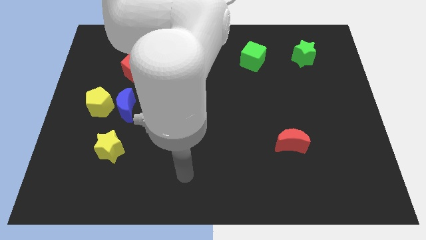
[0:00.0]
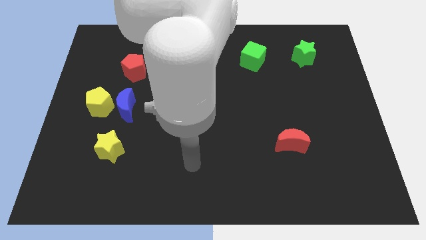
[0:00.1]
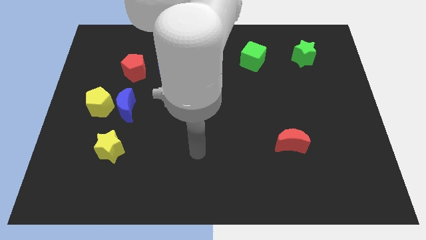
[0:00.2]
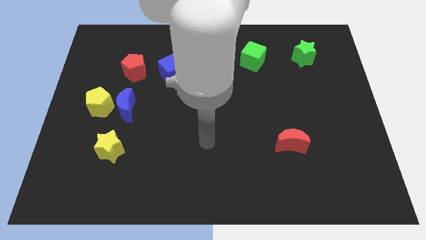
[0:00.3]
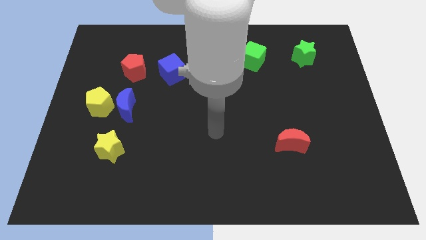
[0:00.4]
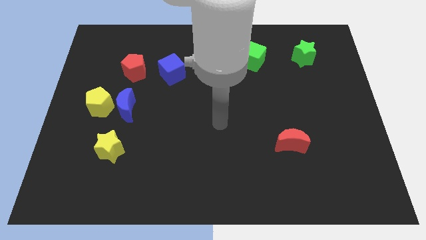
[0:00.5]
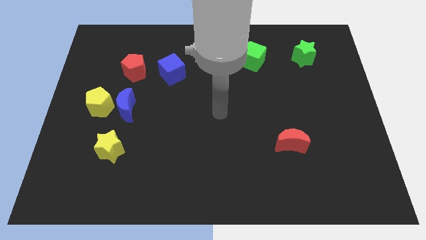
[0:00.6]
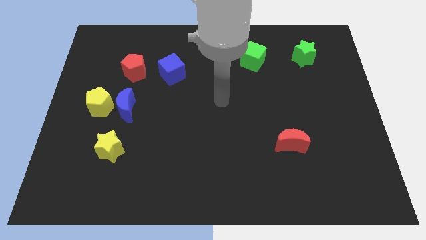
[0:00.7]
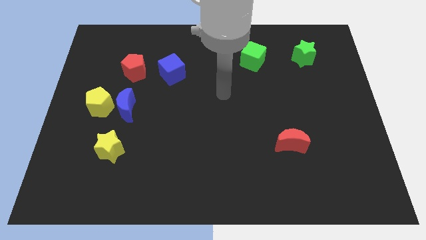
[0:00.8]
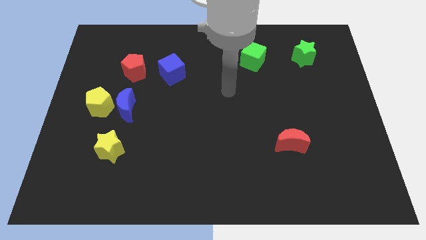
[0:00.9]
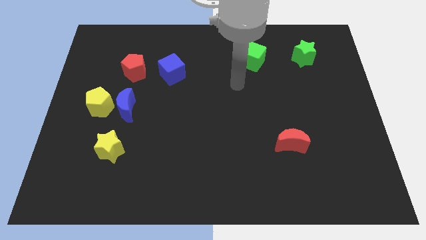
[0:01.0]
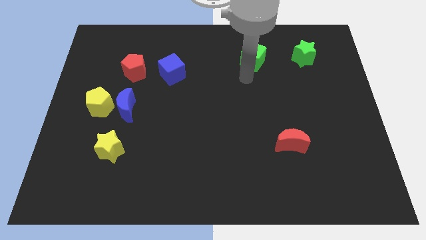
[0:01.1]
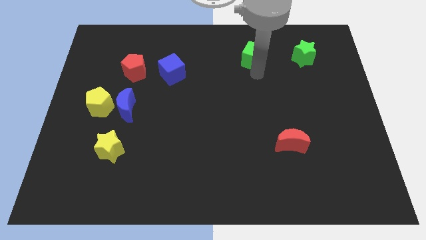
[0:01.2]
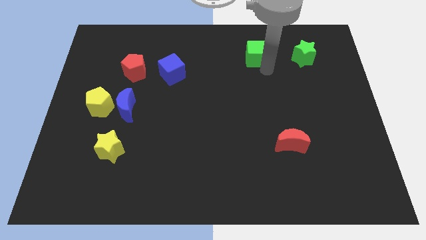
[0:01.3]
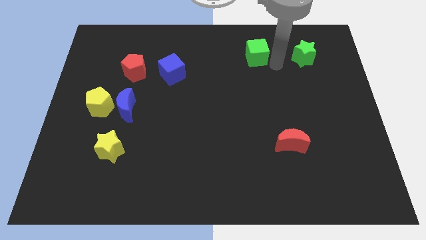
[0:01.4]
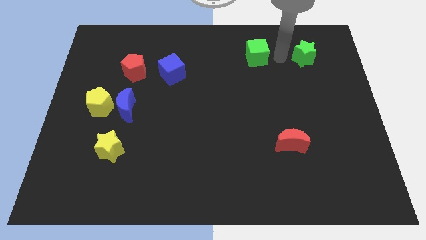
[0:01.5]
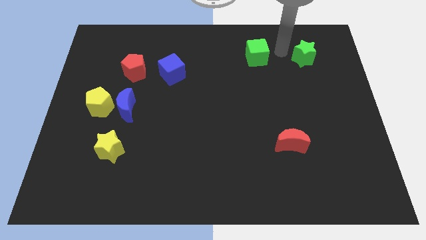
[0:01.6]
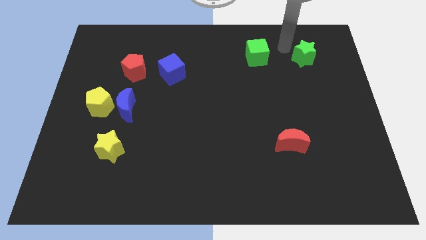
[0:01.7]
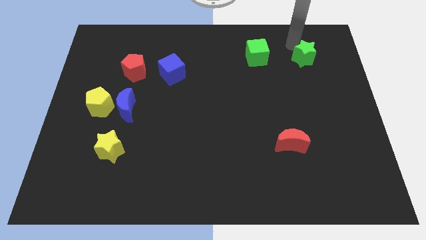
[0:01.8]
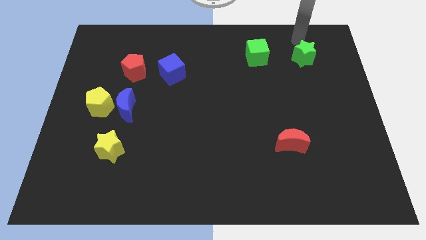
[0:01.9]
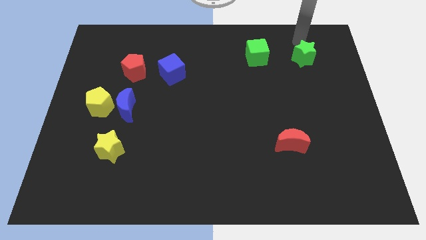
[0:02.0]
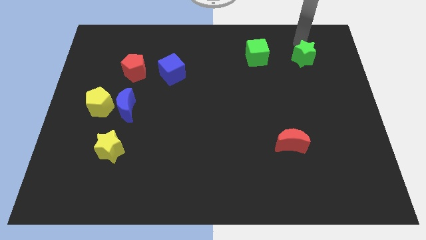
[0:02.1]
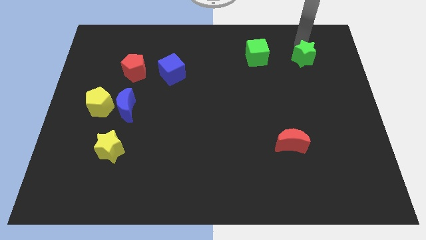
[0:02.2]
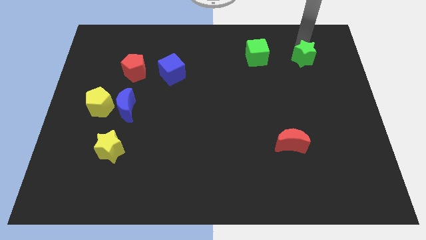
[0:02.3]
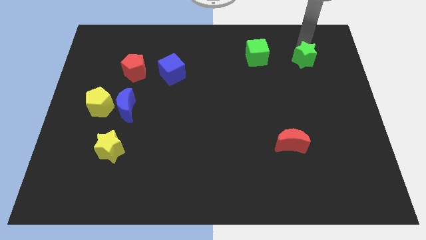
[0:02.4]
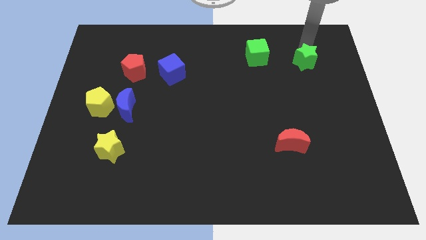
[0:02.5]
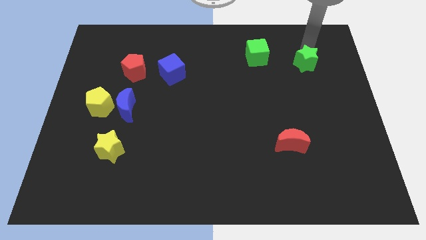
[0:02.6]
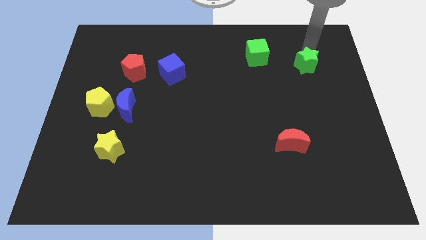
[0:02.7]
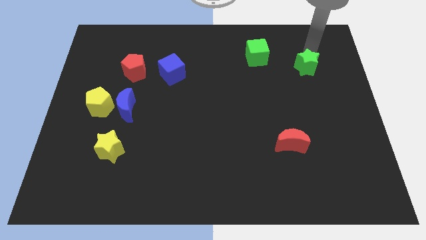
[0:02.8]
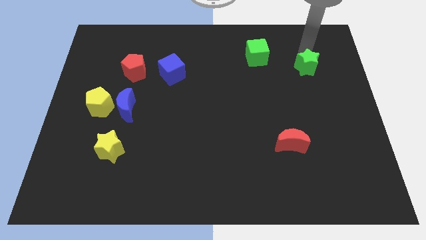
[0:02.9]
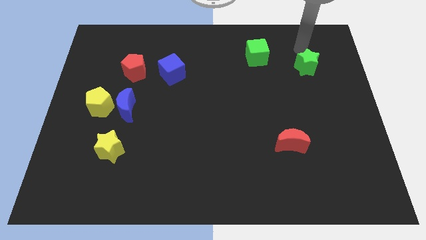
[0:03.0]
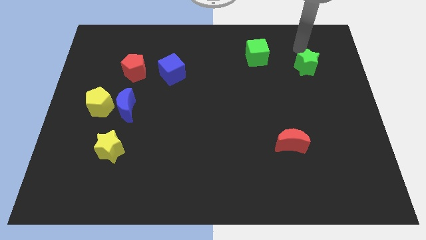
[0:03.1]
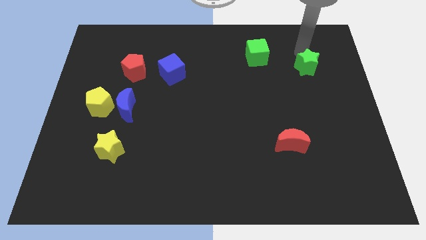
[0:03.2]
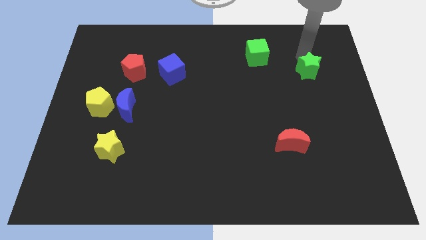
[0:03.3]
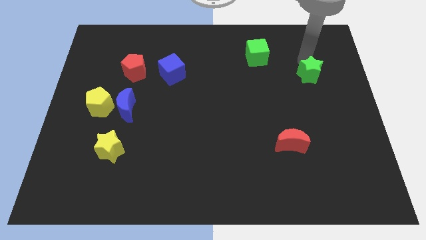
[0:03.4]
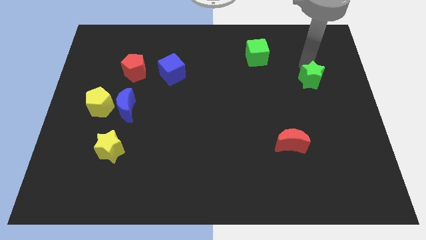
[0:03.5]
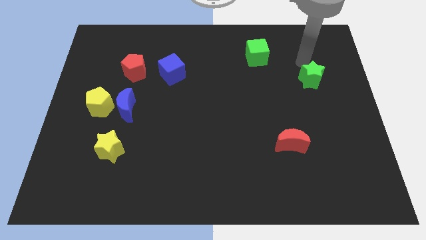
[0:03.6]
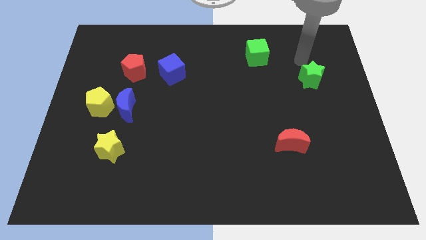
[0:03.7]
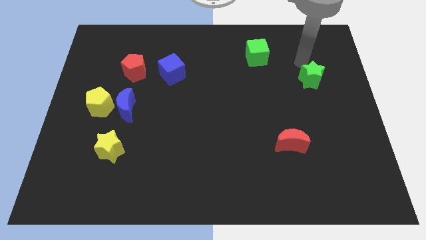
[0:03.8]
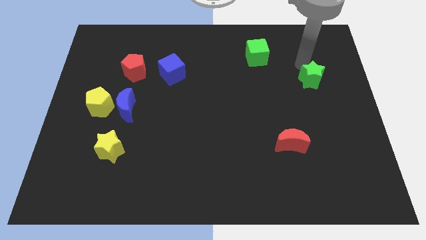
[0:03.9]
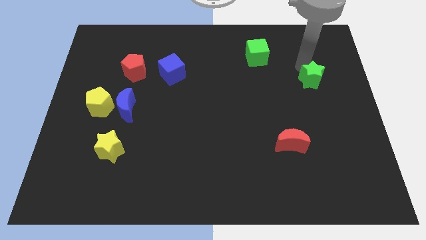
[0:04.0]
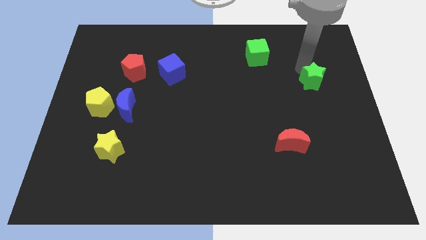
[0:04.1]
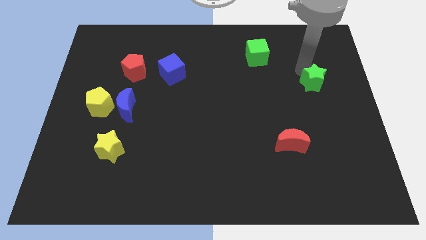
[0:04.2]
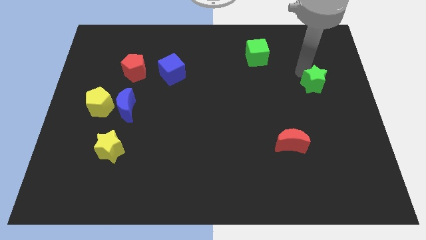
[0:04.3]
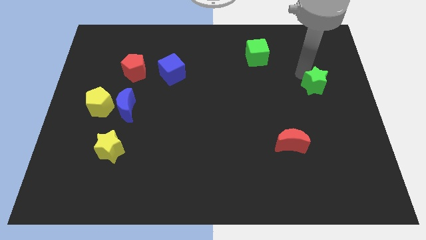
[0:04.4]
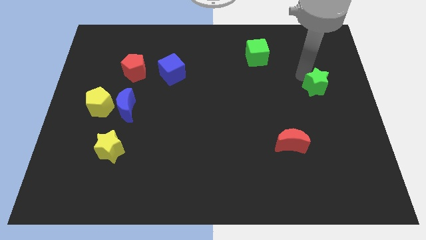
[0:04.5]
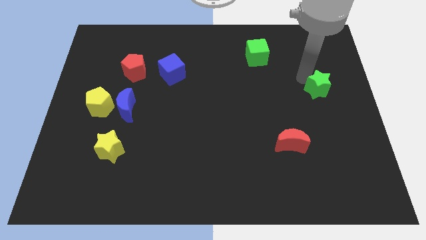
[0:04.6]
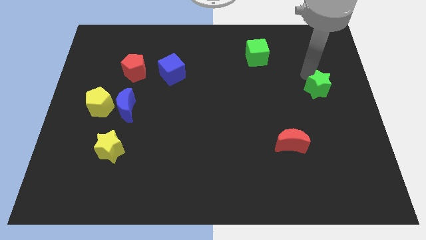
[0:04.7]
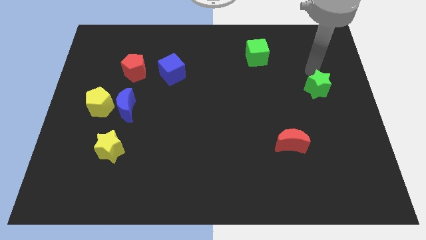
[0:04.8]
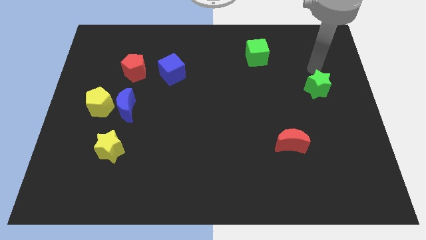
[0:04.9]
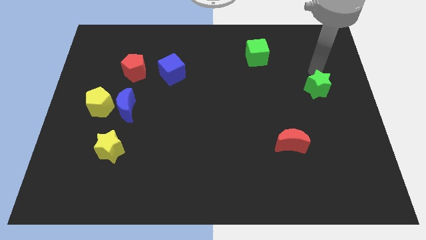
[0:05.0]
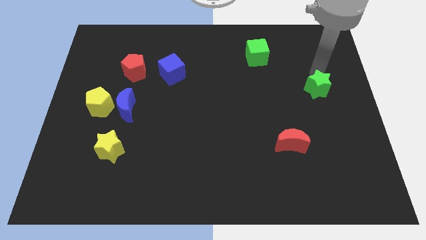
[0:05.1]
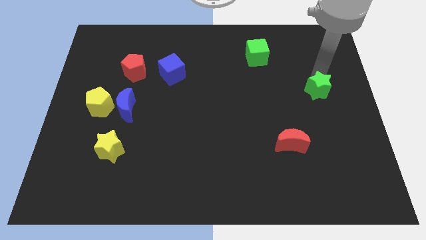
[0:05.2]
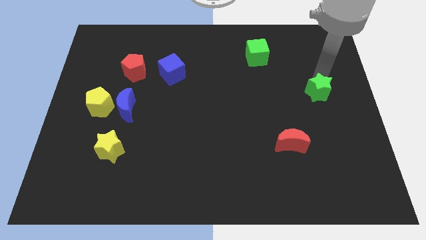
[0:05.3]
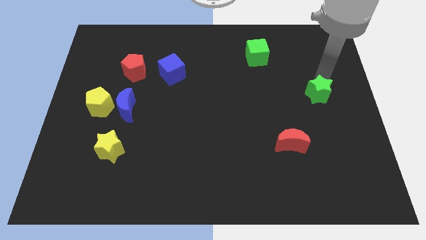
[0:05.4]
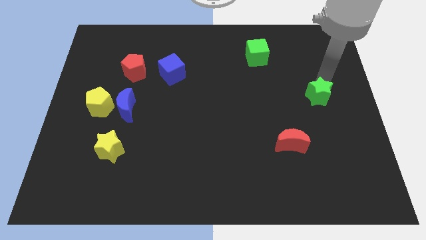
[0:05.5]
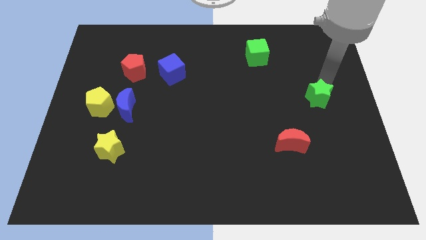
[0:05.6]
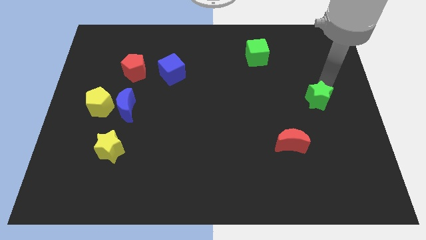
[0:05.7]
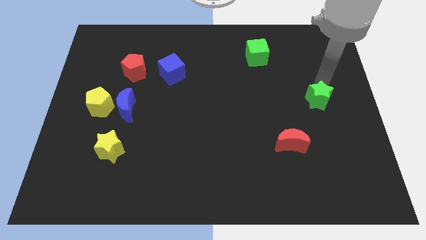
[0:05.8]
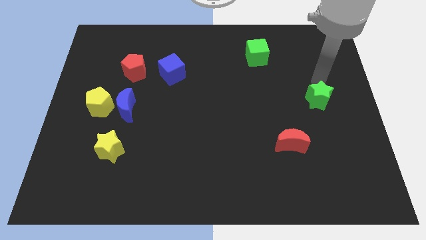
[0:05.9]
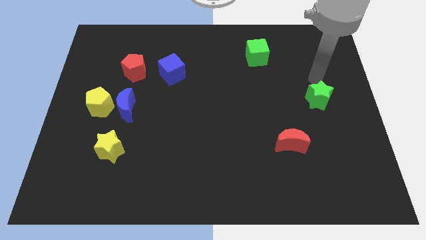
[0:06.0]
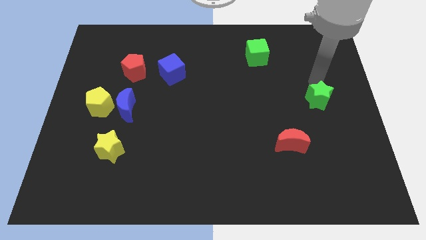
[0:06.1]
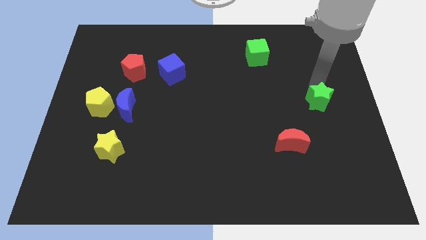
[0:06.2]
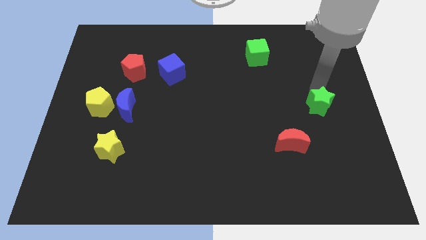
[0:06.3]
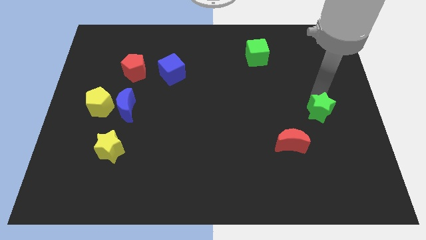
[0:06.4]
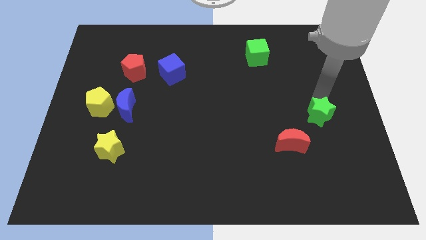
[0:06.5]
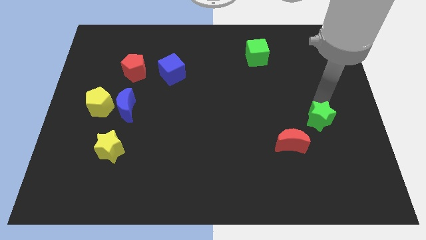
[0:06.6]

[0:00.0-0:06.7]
slide the green star downwards

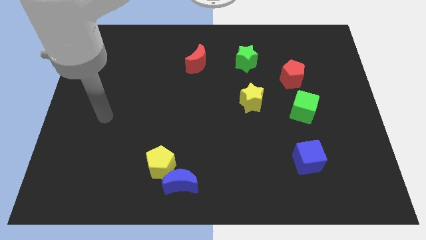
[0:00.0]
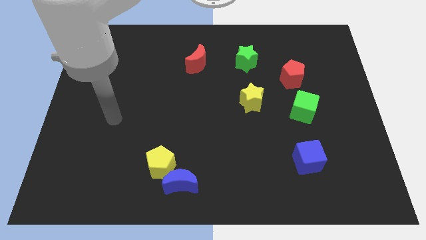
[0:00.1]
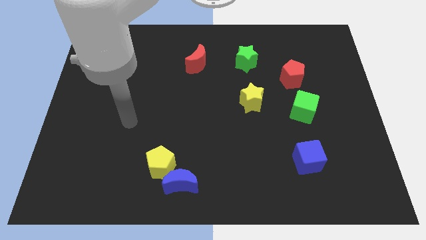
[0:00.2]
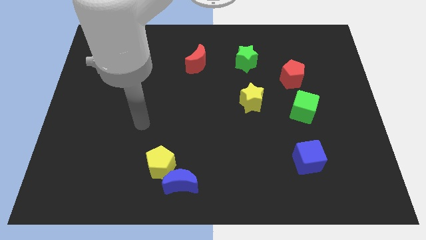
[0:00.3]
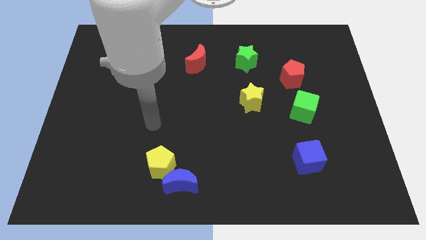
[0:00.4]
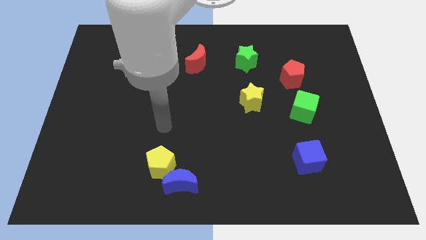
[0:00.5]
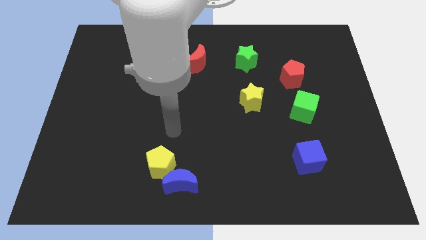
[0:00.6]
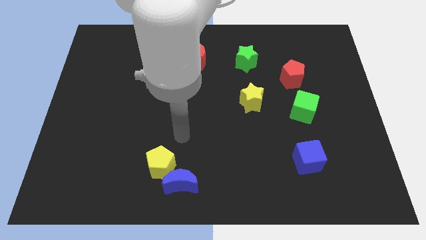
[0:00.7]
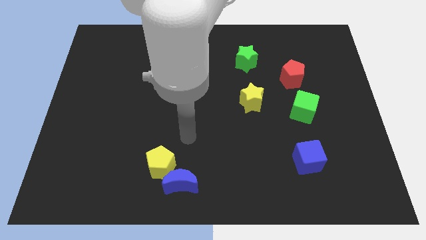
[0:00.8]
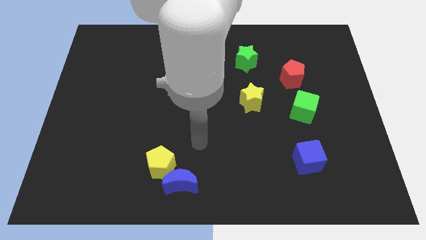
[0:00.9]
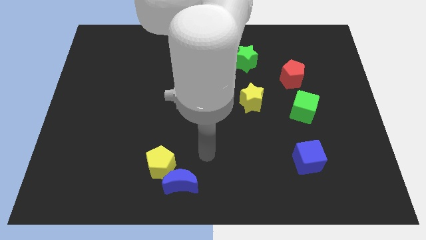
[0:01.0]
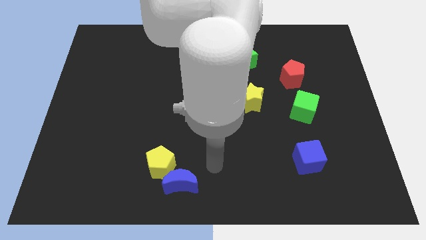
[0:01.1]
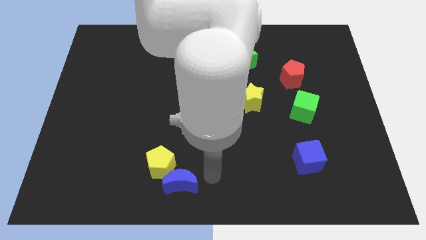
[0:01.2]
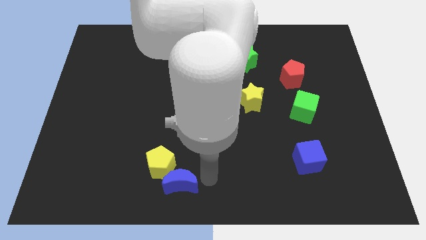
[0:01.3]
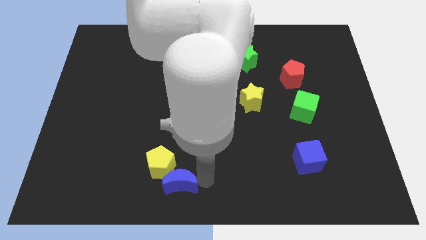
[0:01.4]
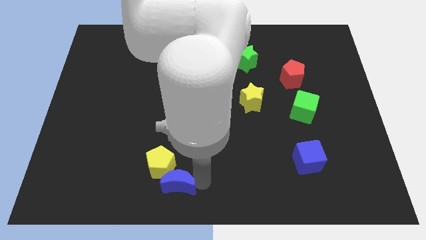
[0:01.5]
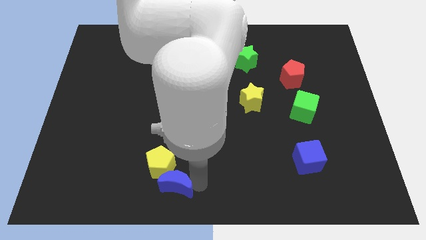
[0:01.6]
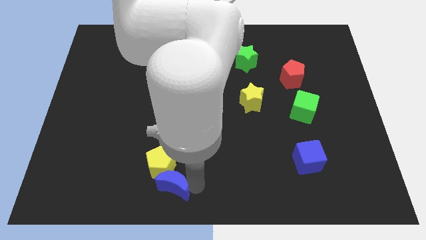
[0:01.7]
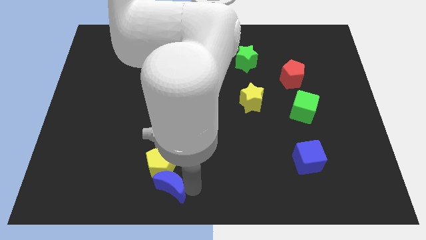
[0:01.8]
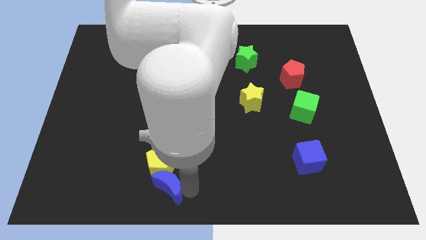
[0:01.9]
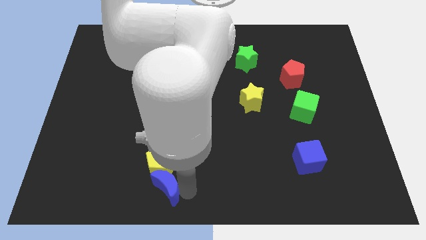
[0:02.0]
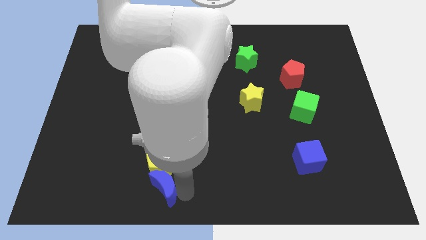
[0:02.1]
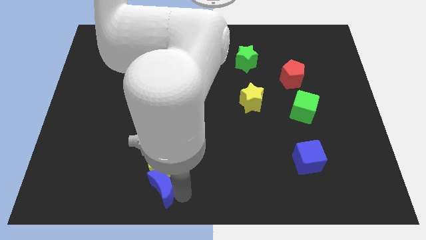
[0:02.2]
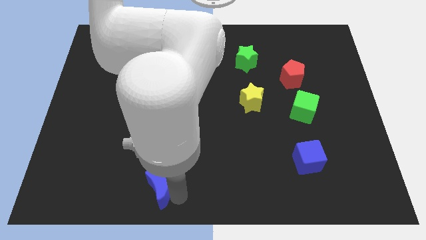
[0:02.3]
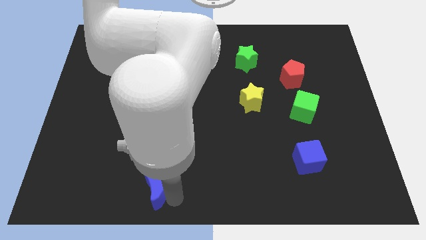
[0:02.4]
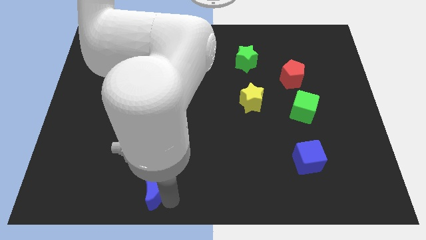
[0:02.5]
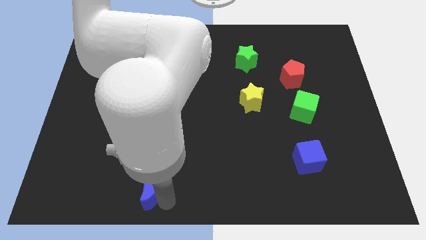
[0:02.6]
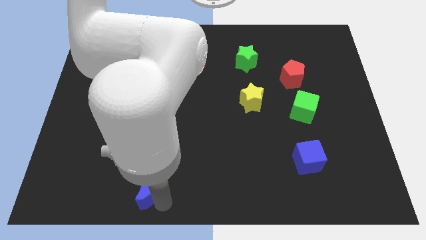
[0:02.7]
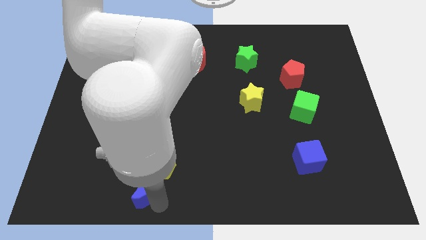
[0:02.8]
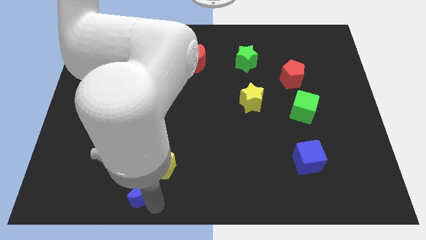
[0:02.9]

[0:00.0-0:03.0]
push the blue moon a little to the left
